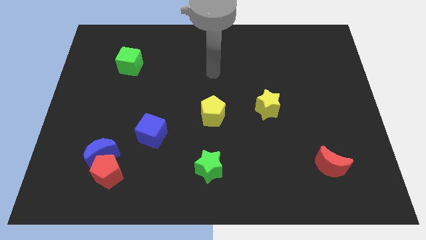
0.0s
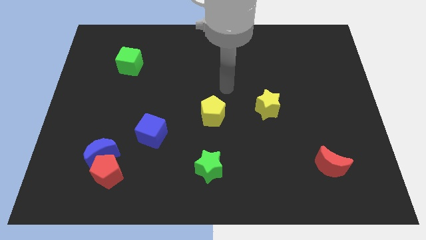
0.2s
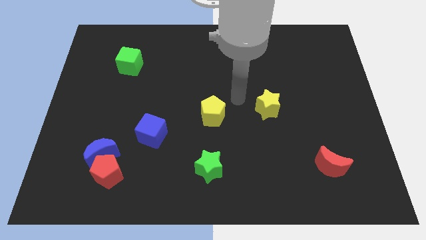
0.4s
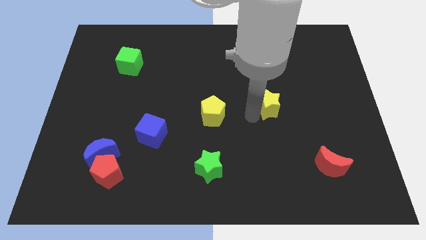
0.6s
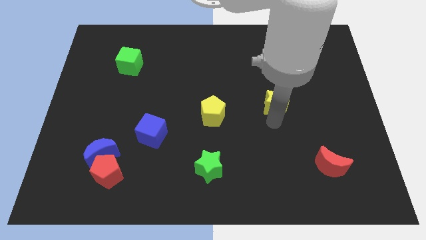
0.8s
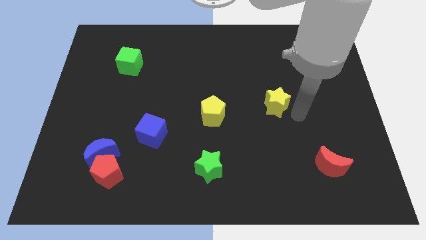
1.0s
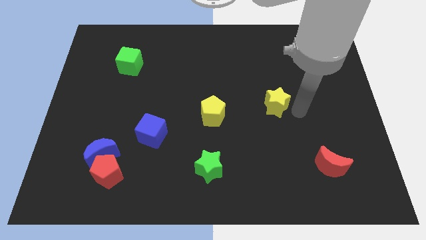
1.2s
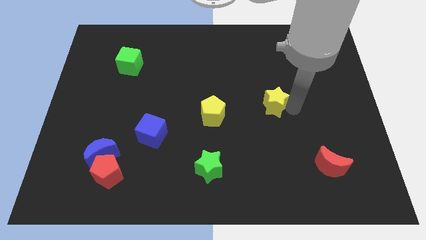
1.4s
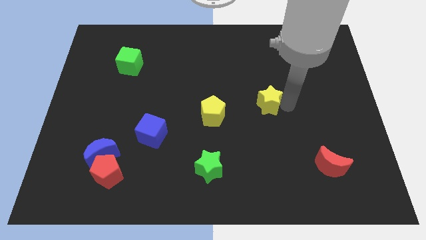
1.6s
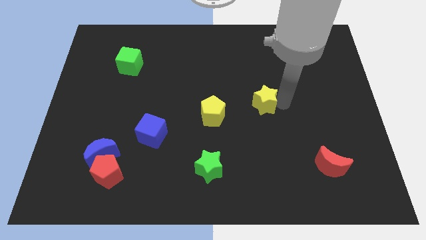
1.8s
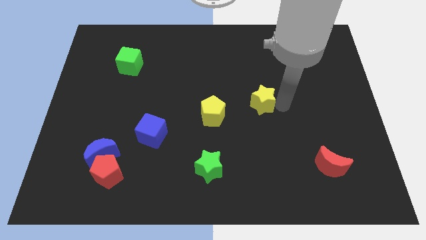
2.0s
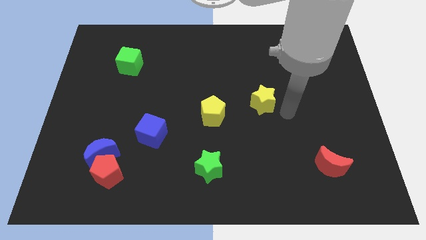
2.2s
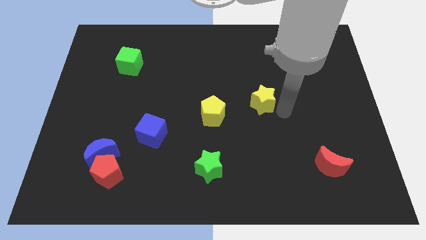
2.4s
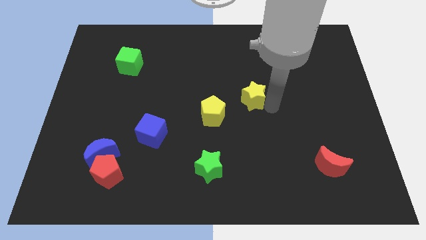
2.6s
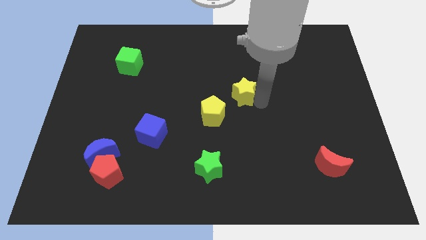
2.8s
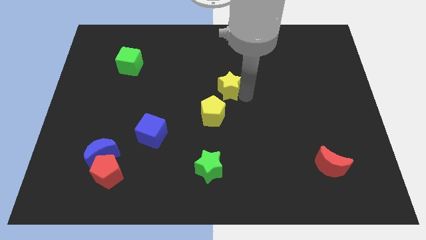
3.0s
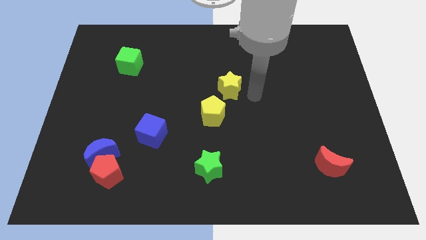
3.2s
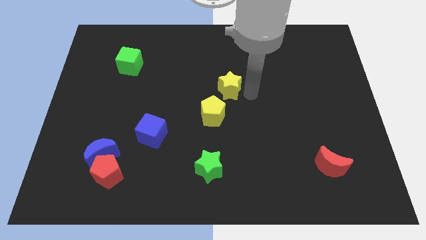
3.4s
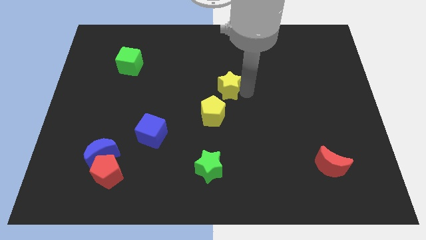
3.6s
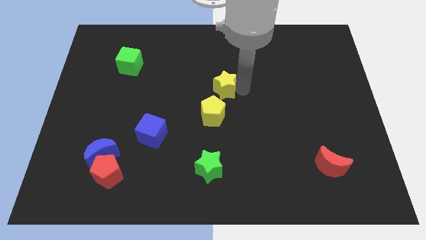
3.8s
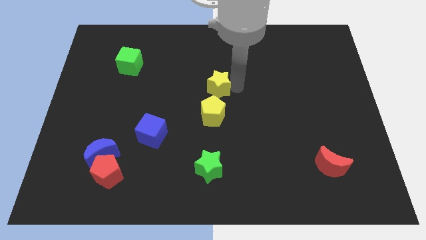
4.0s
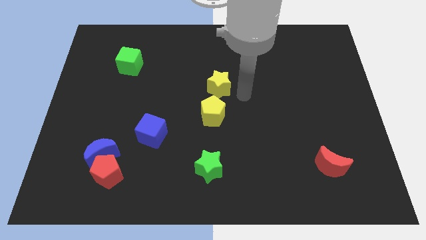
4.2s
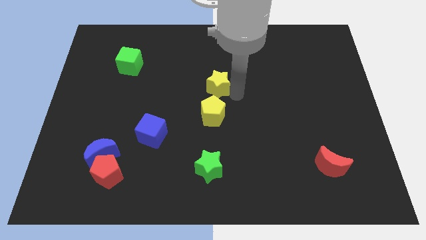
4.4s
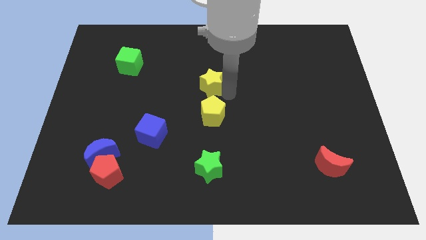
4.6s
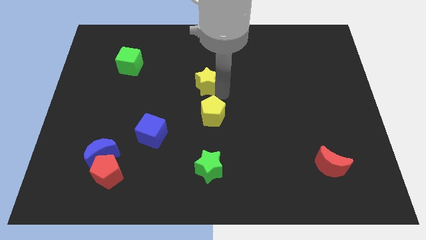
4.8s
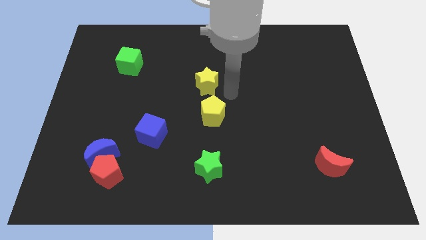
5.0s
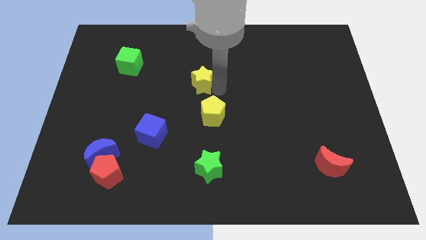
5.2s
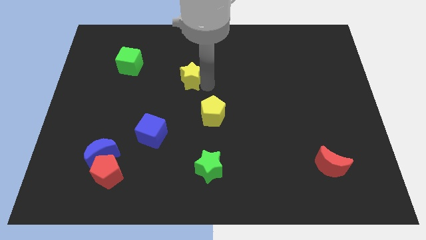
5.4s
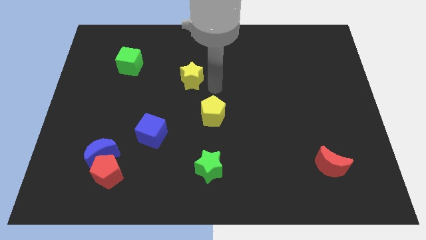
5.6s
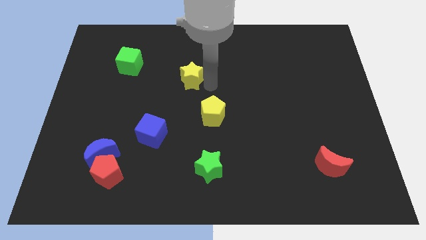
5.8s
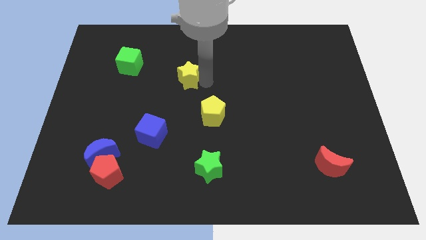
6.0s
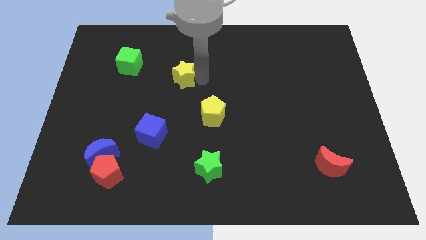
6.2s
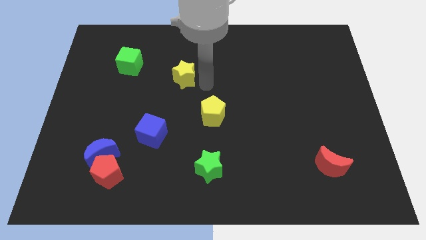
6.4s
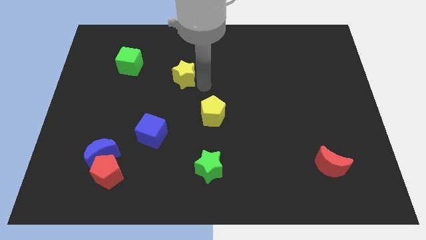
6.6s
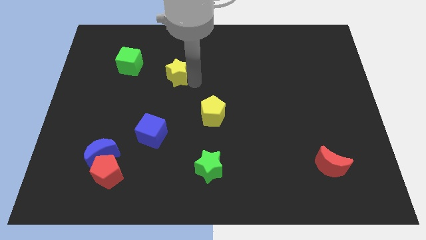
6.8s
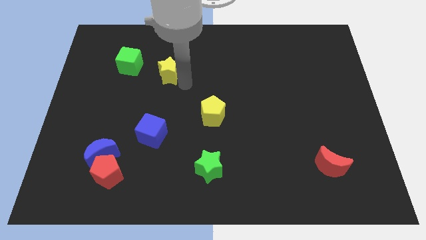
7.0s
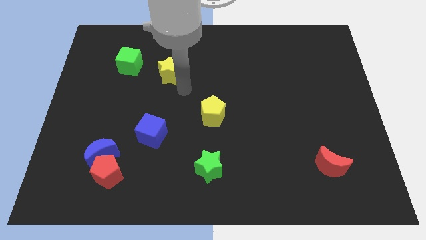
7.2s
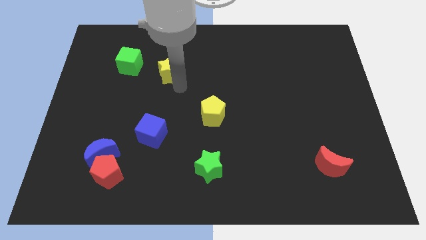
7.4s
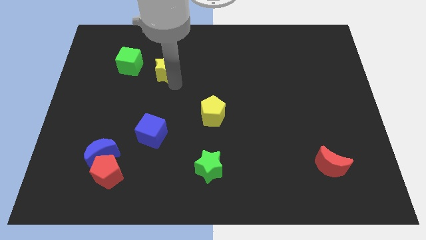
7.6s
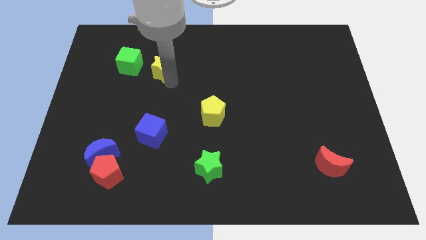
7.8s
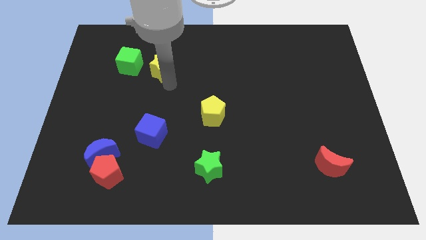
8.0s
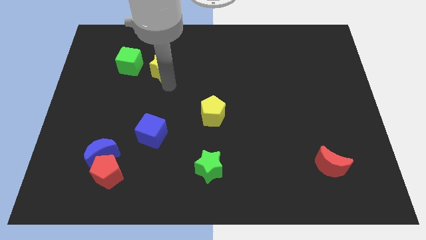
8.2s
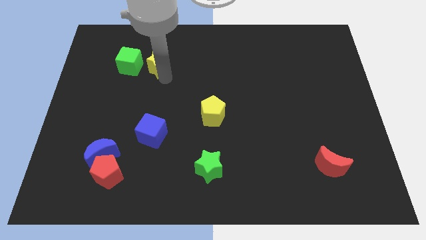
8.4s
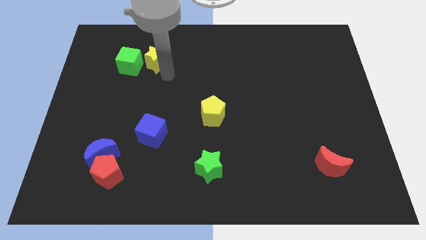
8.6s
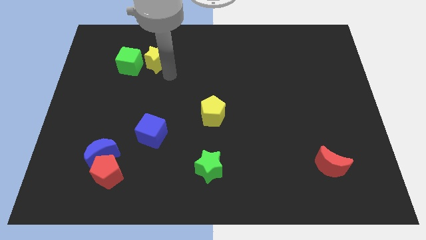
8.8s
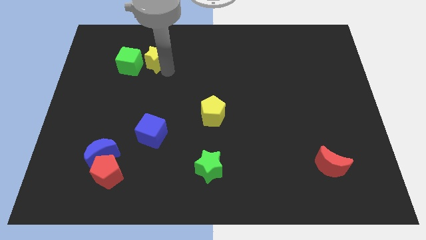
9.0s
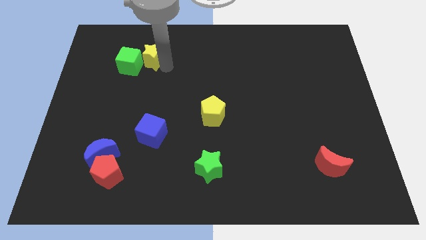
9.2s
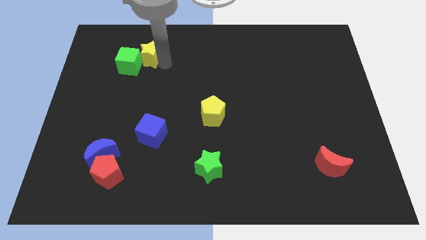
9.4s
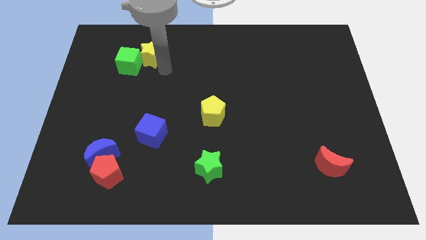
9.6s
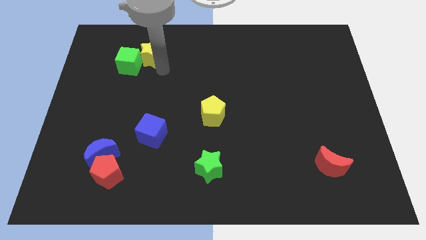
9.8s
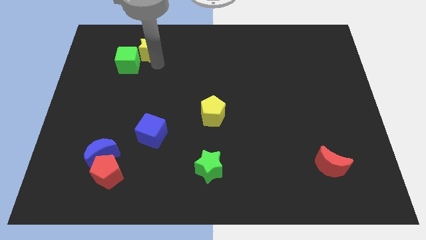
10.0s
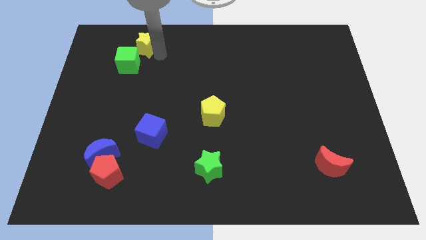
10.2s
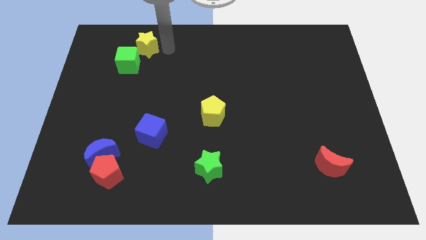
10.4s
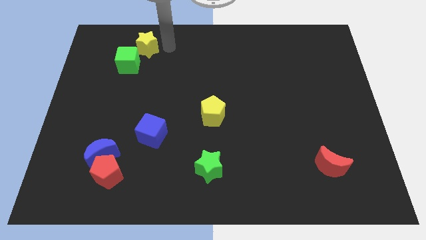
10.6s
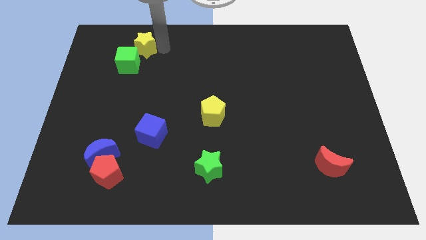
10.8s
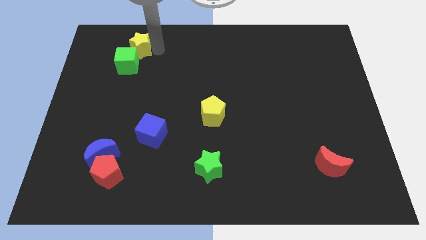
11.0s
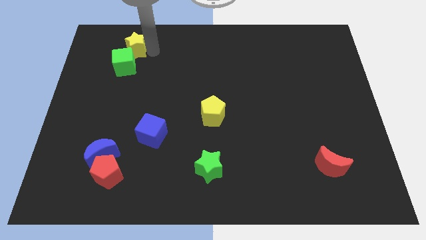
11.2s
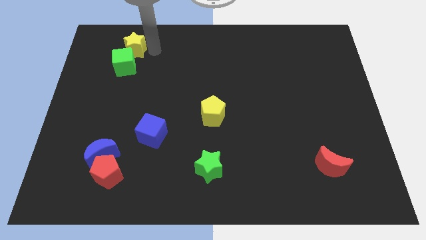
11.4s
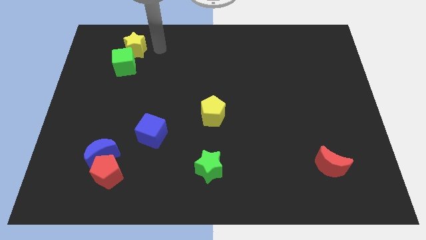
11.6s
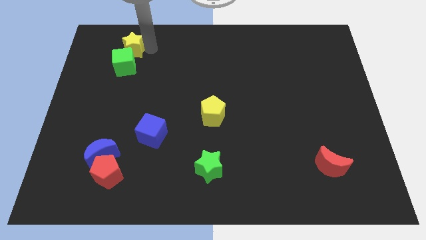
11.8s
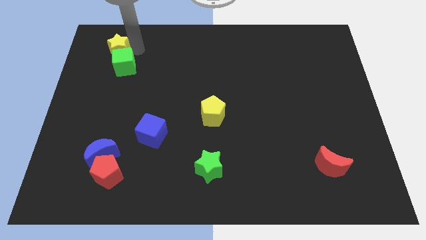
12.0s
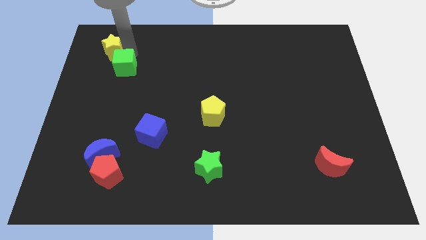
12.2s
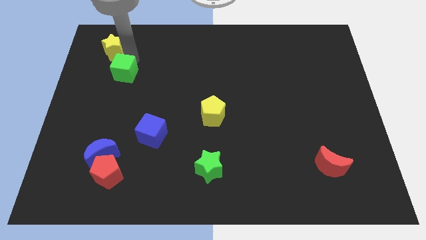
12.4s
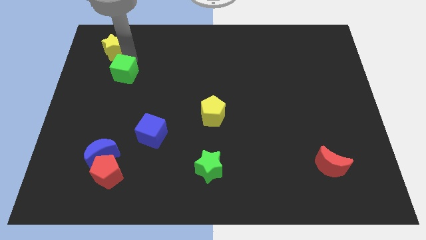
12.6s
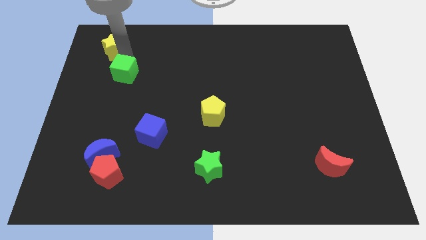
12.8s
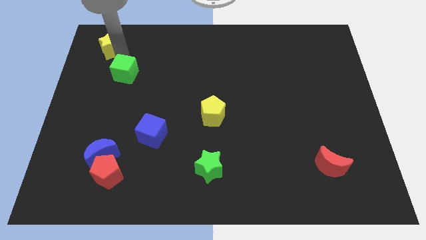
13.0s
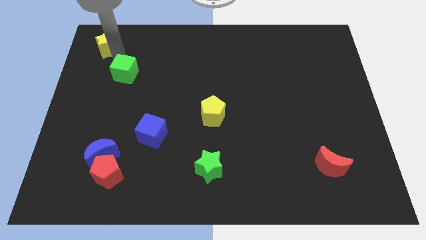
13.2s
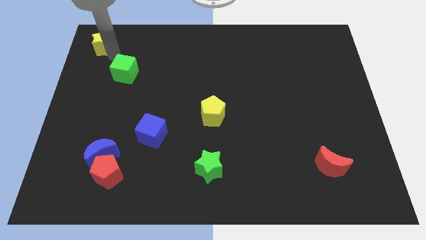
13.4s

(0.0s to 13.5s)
push the yellow star to the top left of the board
